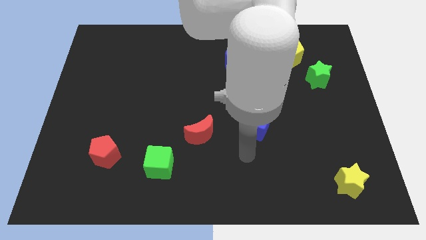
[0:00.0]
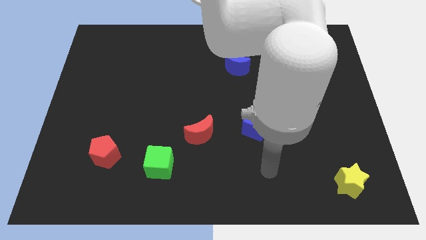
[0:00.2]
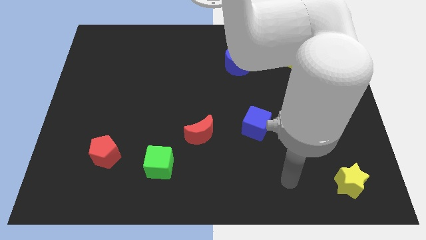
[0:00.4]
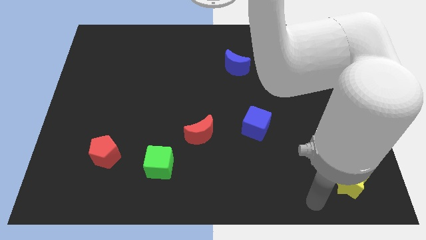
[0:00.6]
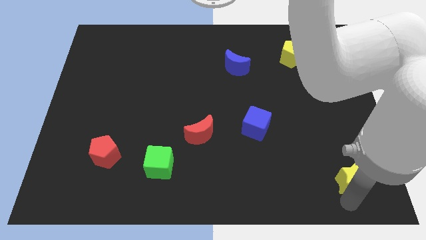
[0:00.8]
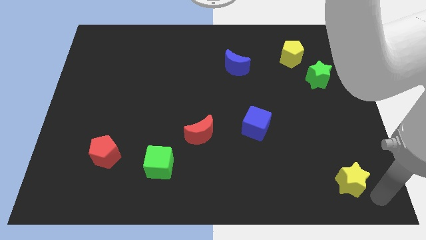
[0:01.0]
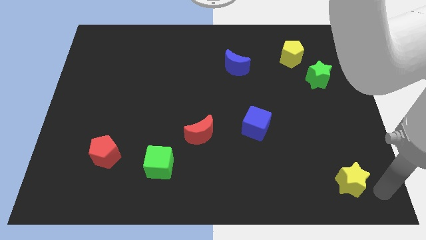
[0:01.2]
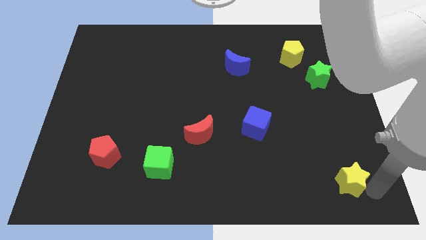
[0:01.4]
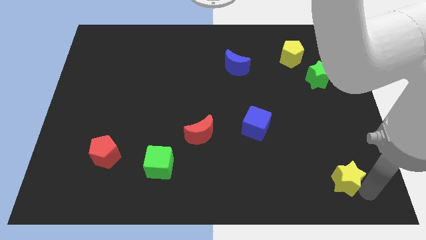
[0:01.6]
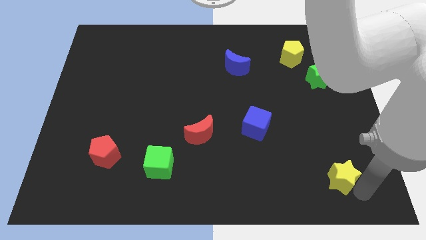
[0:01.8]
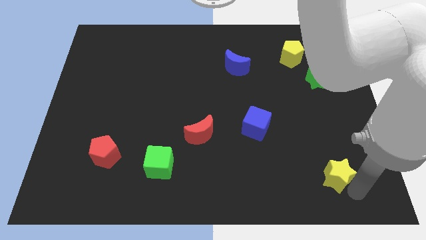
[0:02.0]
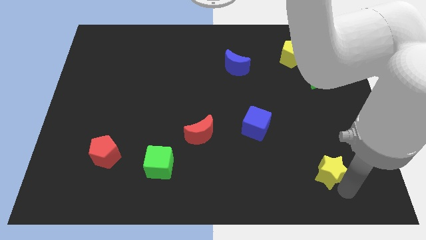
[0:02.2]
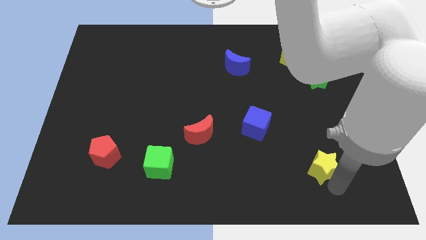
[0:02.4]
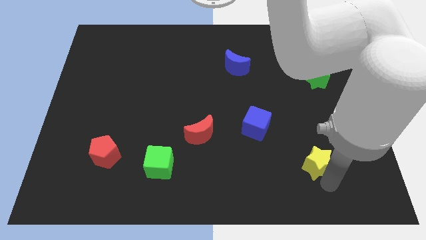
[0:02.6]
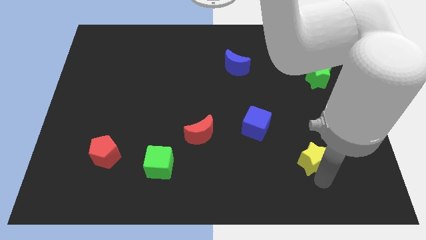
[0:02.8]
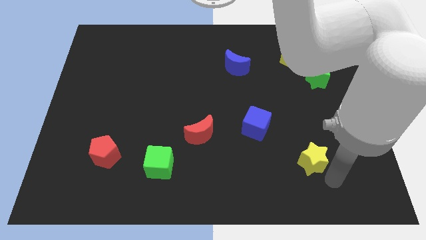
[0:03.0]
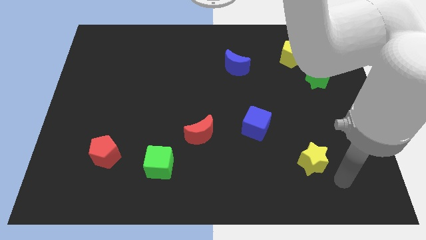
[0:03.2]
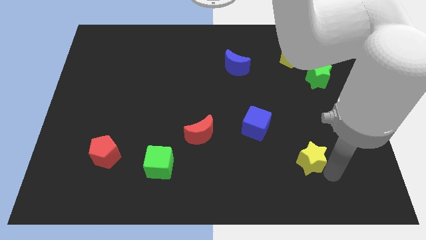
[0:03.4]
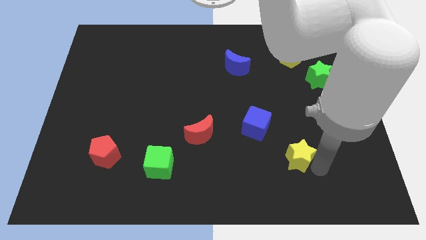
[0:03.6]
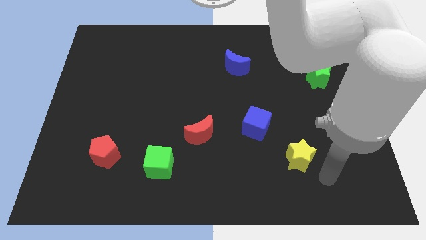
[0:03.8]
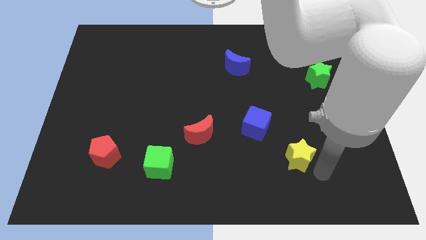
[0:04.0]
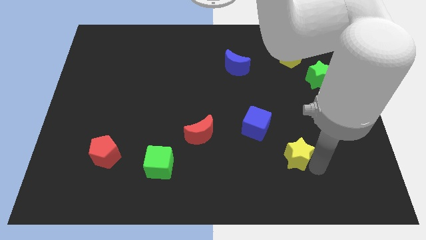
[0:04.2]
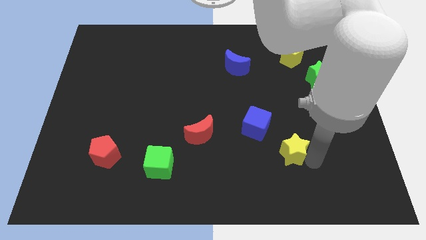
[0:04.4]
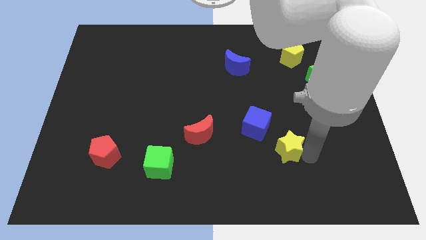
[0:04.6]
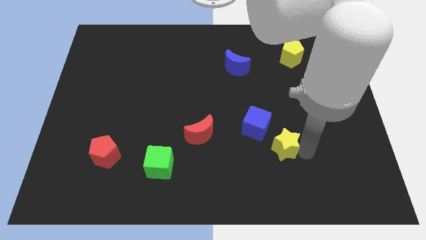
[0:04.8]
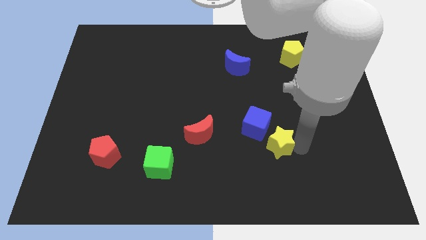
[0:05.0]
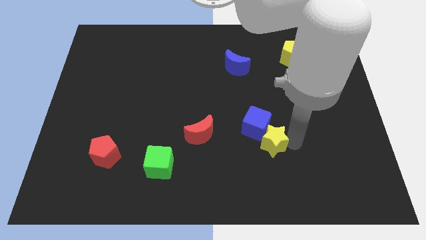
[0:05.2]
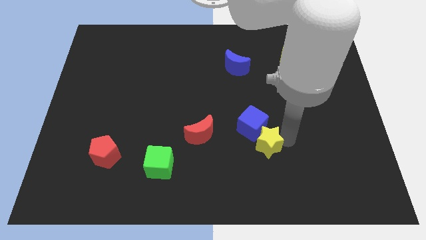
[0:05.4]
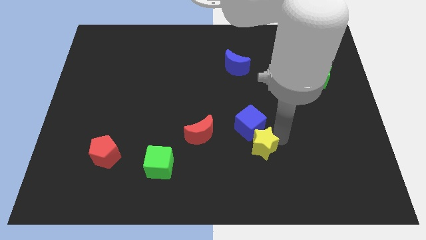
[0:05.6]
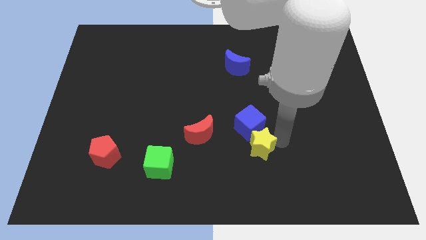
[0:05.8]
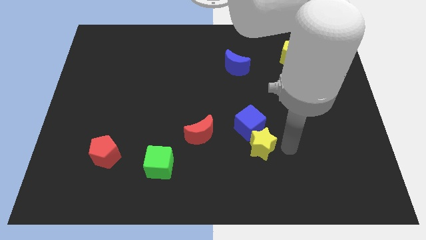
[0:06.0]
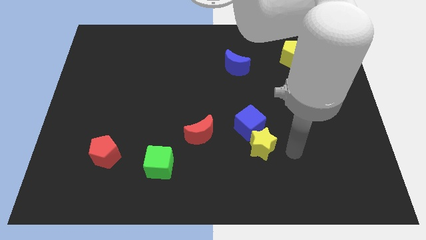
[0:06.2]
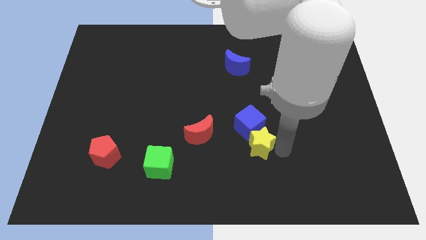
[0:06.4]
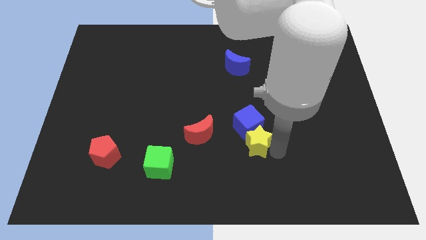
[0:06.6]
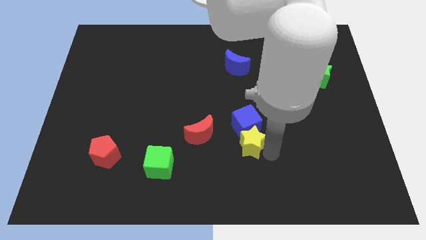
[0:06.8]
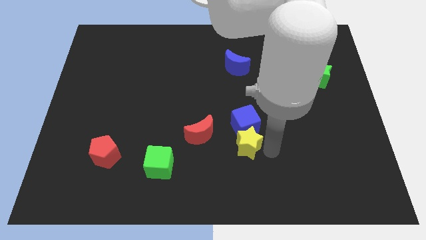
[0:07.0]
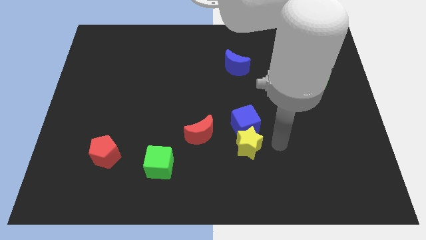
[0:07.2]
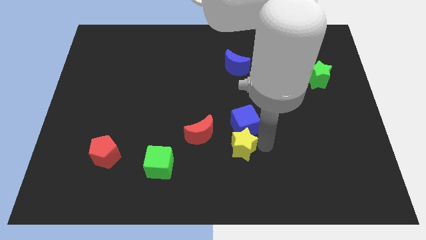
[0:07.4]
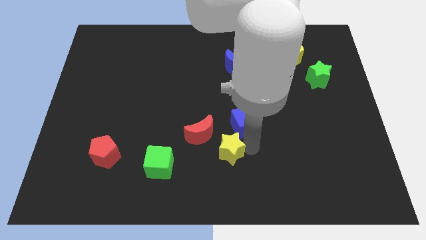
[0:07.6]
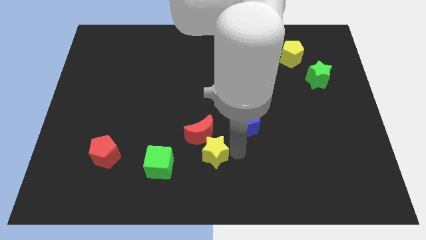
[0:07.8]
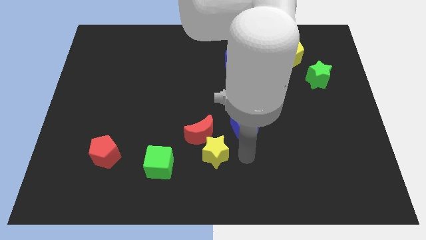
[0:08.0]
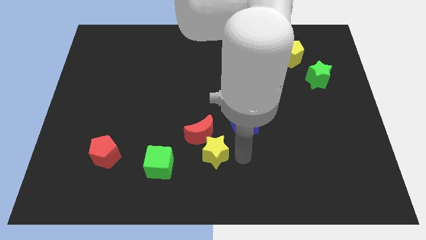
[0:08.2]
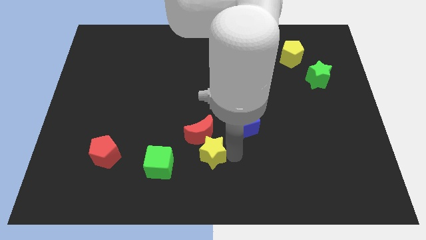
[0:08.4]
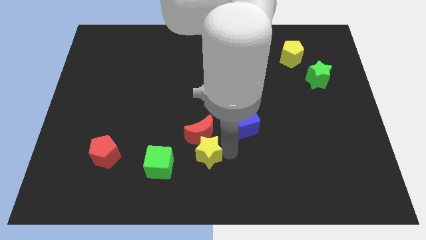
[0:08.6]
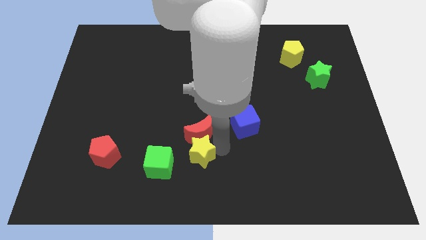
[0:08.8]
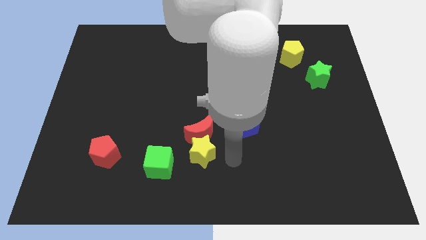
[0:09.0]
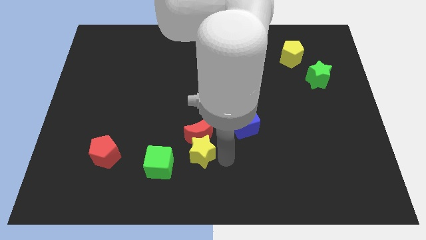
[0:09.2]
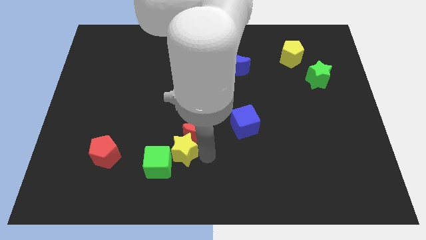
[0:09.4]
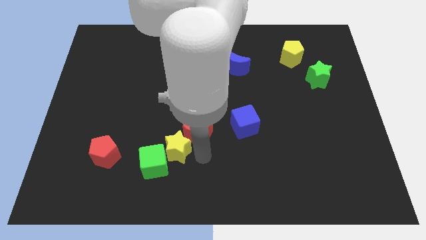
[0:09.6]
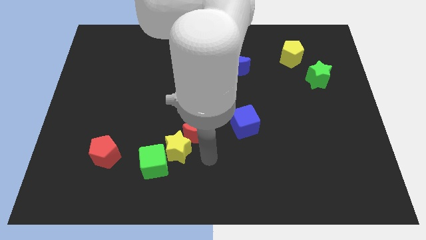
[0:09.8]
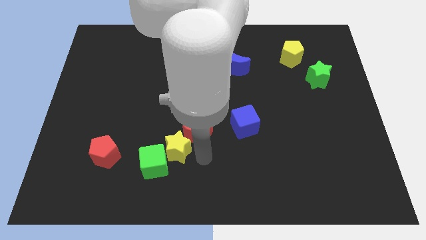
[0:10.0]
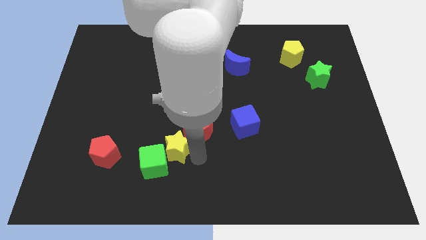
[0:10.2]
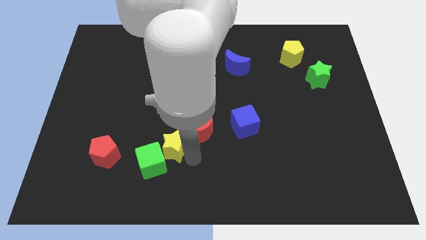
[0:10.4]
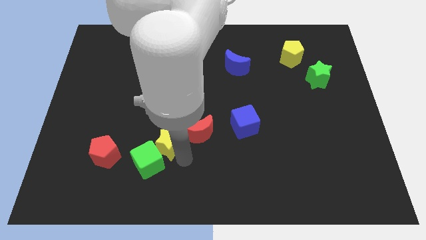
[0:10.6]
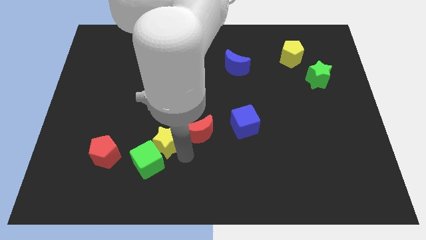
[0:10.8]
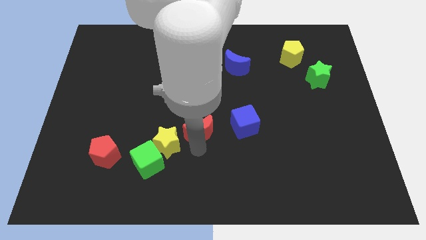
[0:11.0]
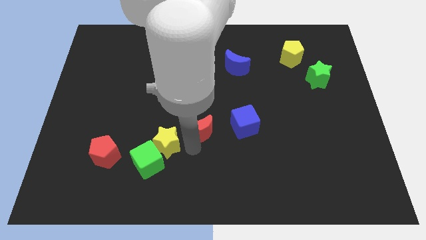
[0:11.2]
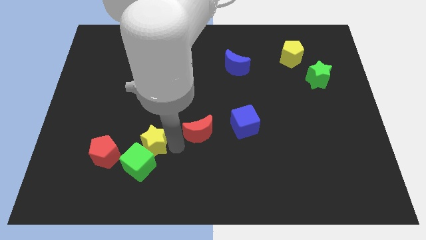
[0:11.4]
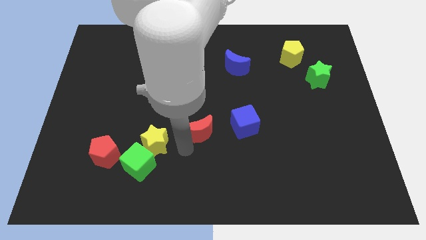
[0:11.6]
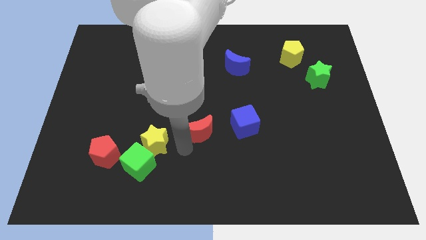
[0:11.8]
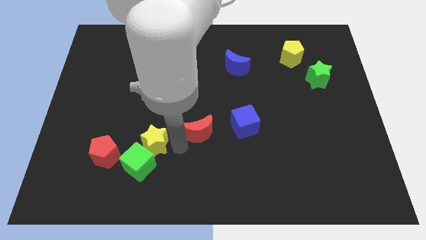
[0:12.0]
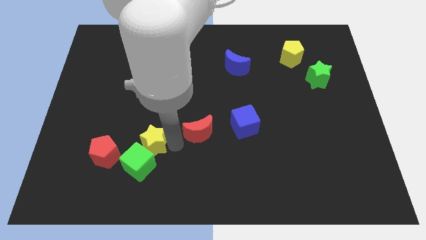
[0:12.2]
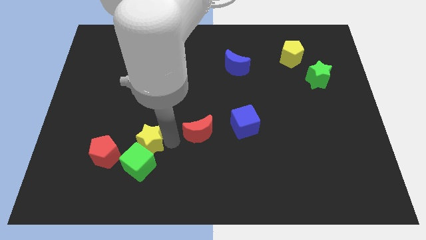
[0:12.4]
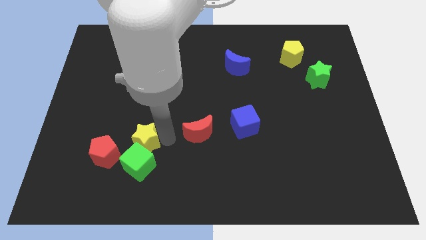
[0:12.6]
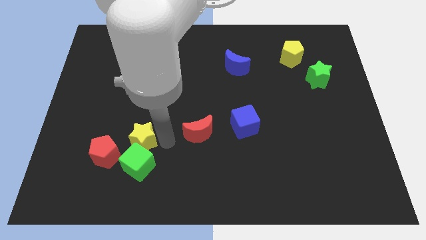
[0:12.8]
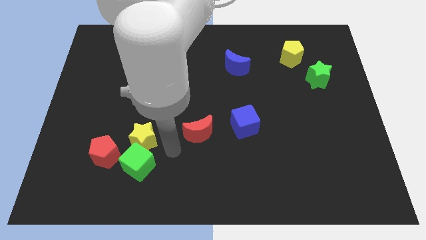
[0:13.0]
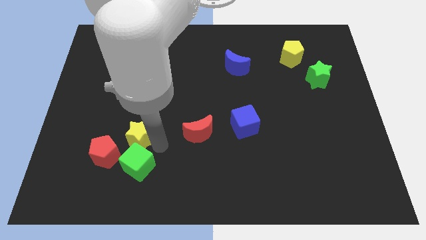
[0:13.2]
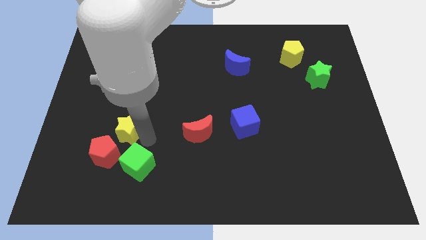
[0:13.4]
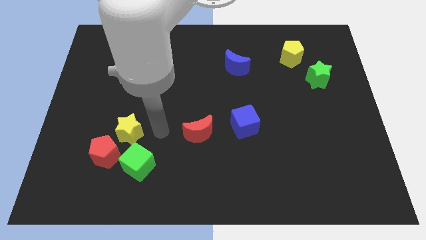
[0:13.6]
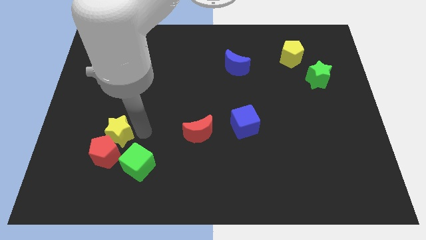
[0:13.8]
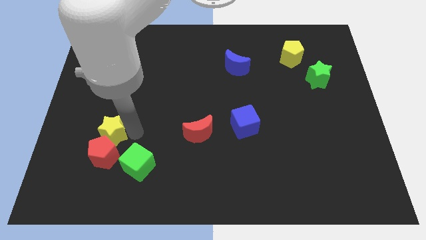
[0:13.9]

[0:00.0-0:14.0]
move the yellow star diagonally up and to the left of the red pentagon
